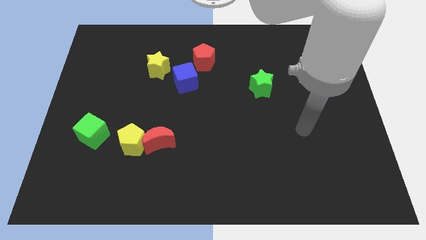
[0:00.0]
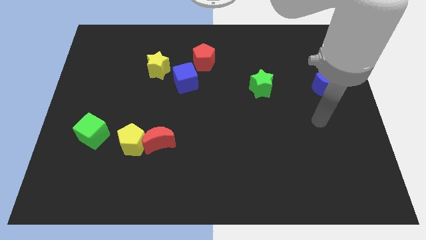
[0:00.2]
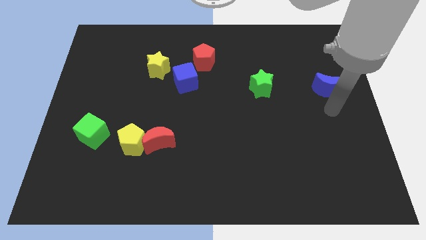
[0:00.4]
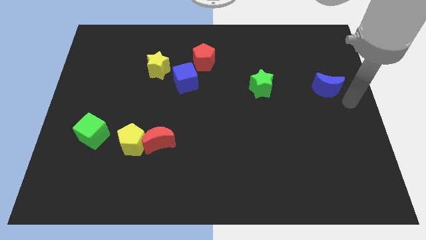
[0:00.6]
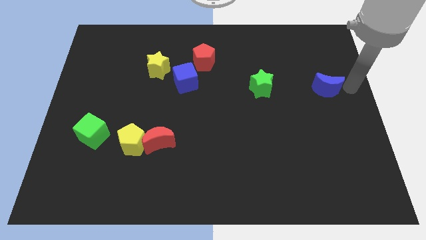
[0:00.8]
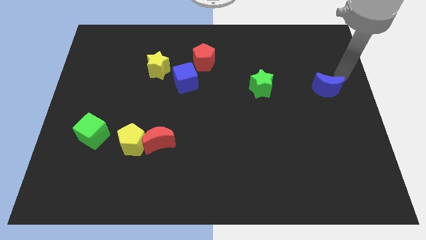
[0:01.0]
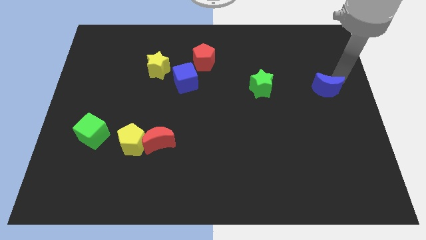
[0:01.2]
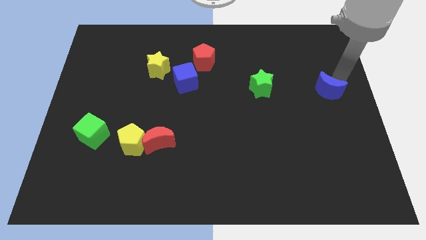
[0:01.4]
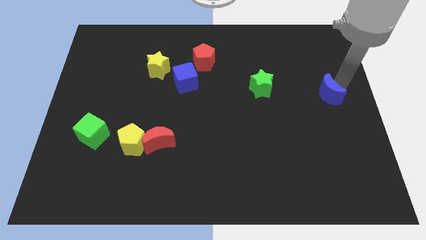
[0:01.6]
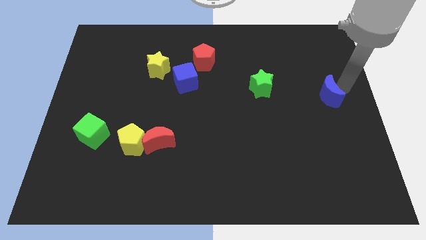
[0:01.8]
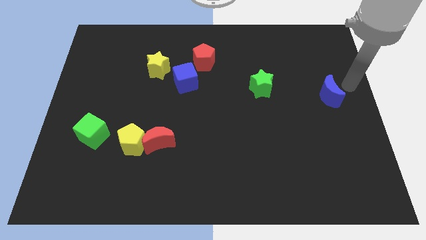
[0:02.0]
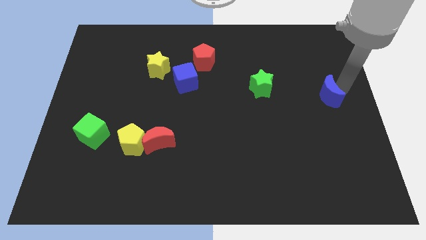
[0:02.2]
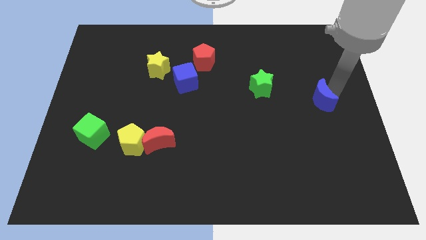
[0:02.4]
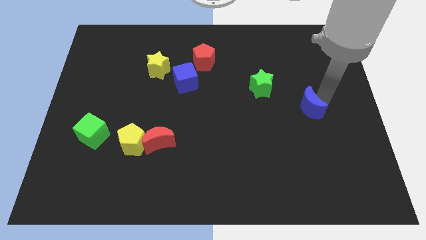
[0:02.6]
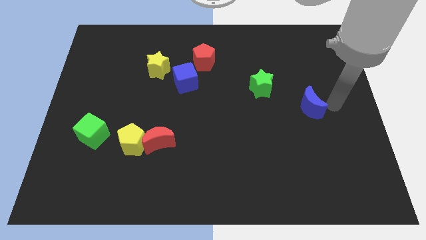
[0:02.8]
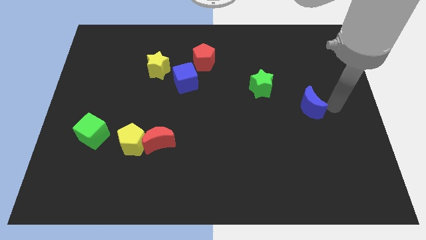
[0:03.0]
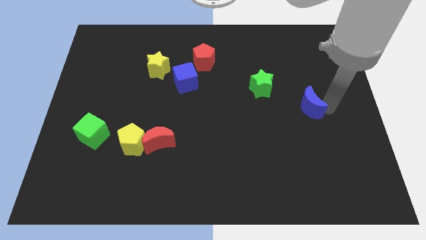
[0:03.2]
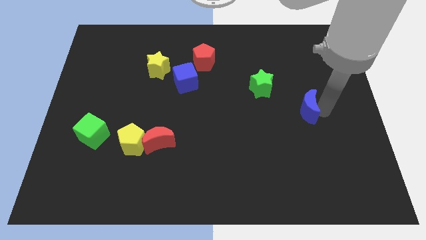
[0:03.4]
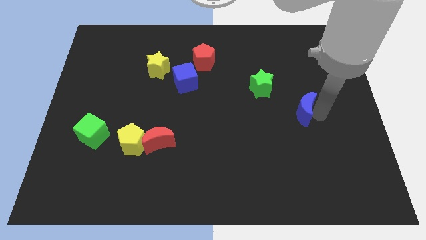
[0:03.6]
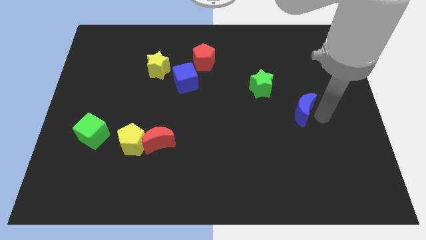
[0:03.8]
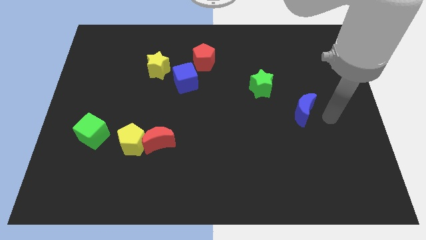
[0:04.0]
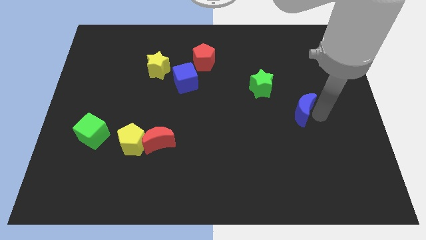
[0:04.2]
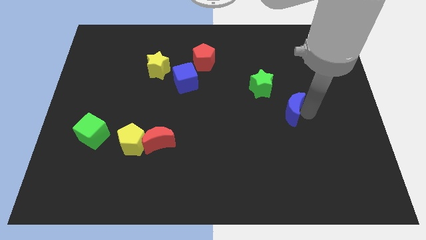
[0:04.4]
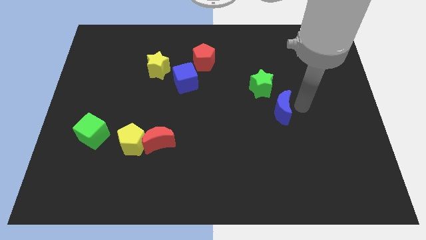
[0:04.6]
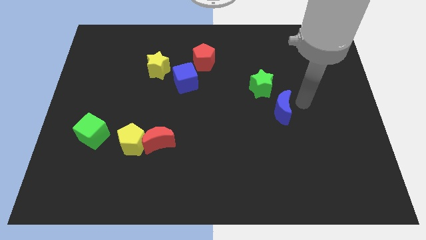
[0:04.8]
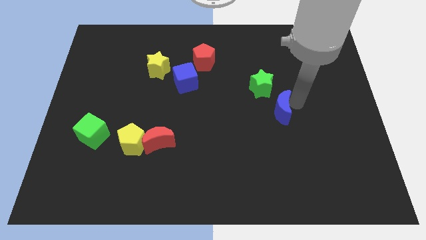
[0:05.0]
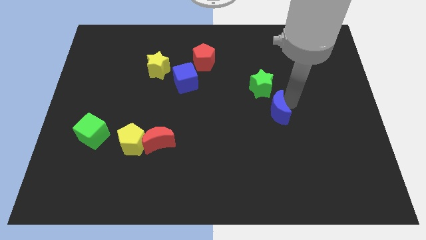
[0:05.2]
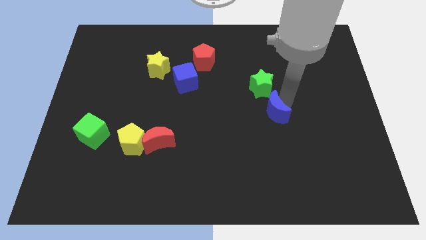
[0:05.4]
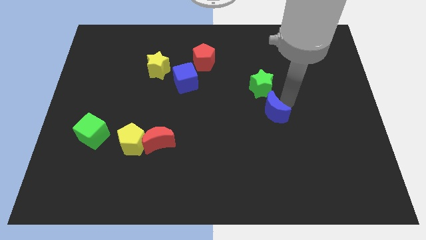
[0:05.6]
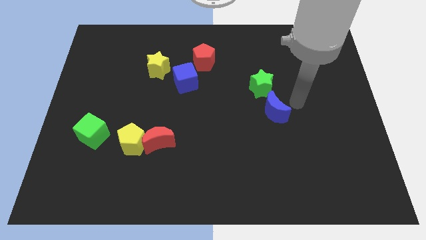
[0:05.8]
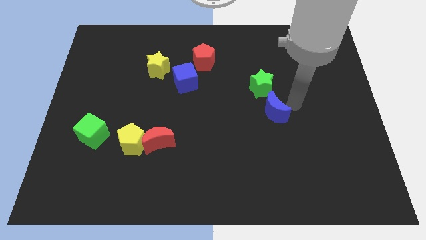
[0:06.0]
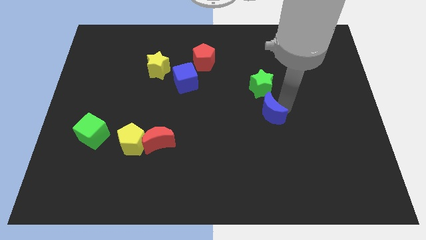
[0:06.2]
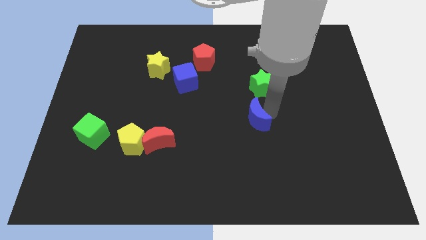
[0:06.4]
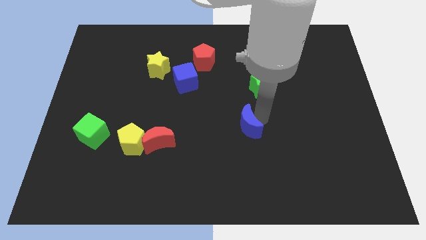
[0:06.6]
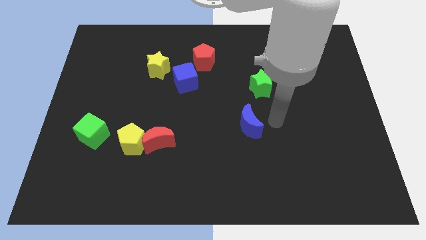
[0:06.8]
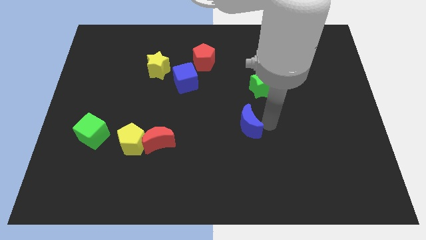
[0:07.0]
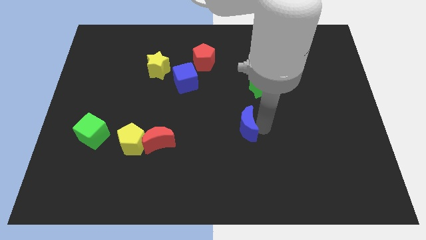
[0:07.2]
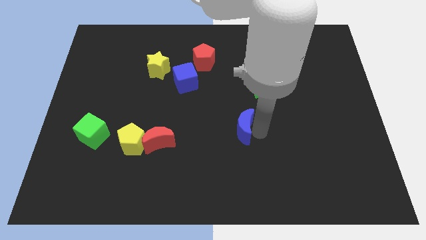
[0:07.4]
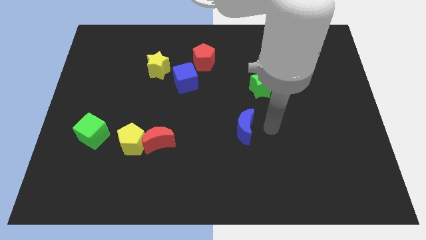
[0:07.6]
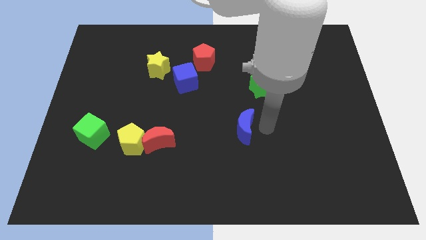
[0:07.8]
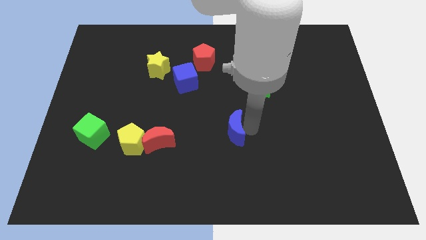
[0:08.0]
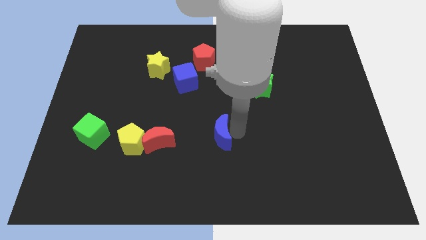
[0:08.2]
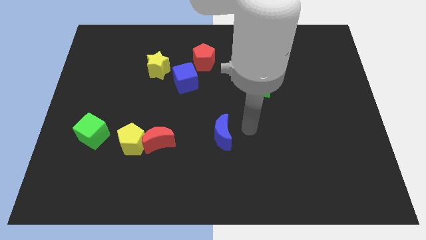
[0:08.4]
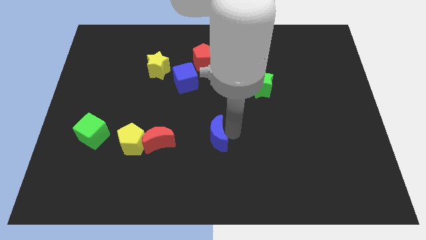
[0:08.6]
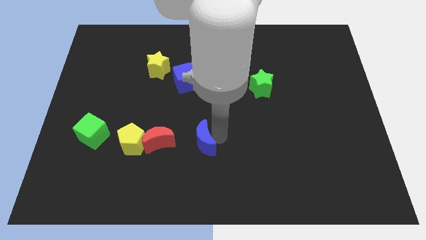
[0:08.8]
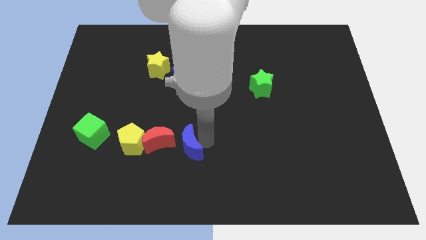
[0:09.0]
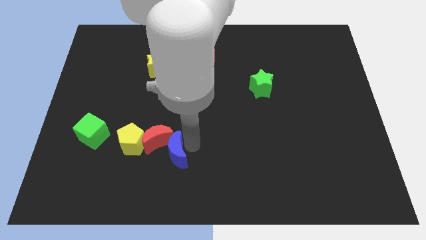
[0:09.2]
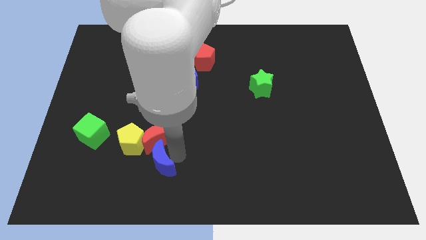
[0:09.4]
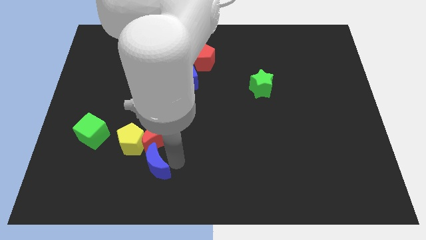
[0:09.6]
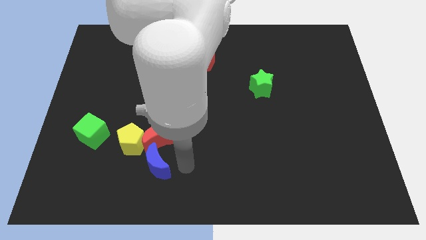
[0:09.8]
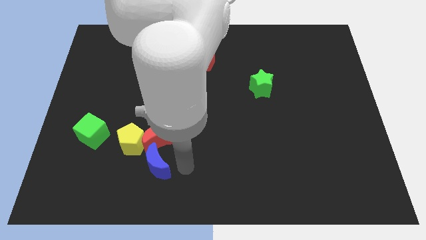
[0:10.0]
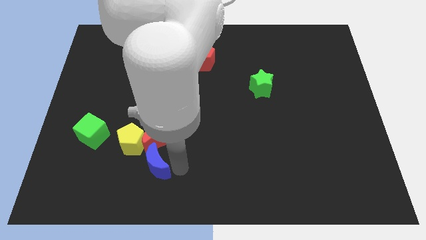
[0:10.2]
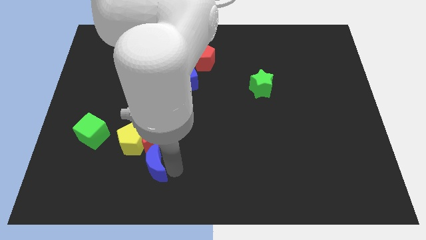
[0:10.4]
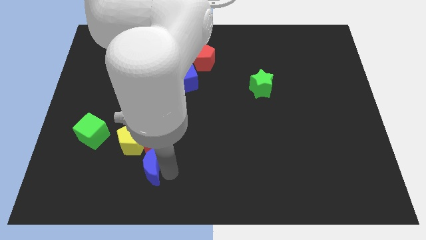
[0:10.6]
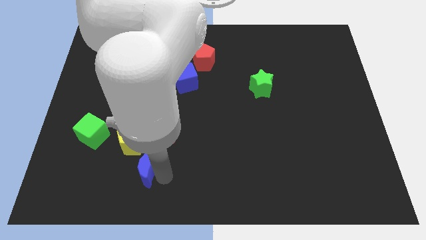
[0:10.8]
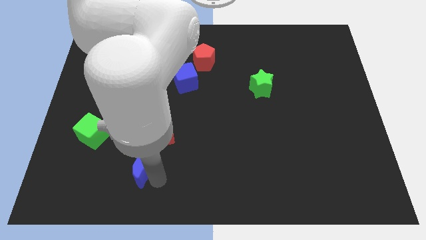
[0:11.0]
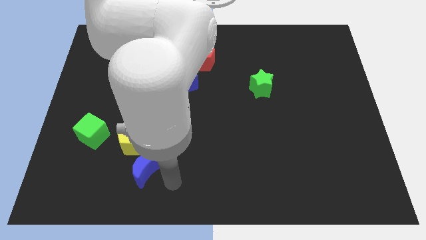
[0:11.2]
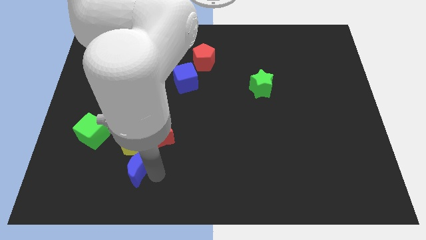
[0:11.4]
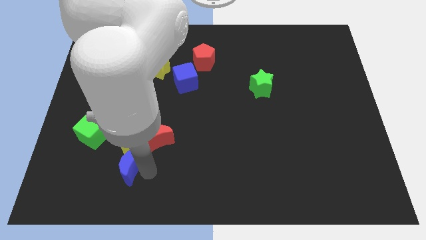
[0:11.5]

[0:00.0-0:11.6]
slide the blue moon to the bottom right side of the green cube

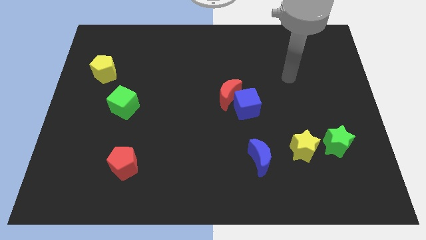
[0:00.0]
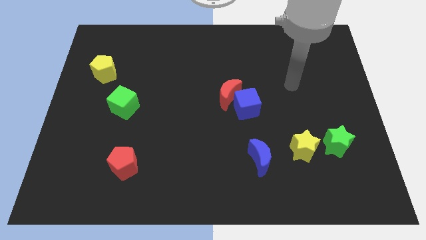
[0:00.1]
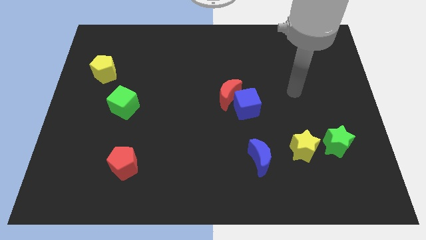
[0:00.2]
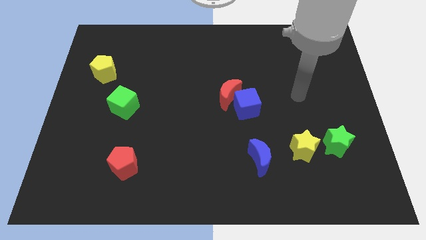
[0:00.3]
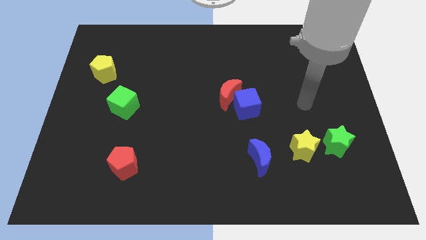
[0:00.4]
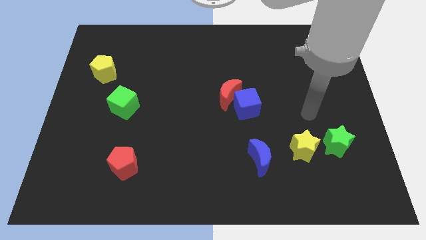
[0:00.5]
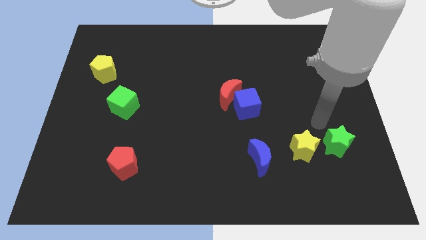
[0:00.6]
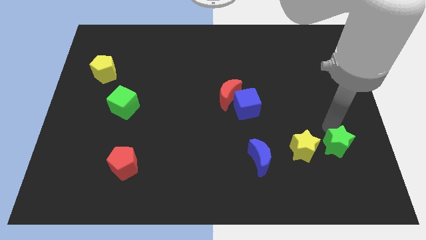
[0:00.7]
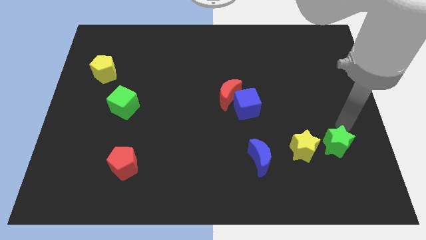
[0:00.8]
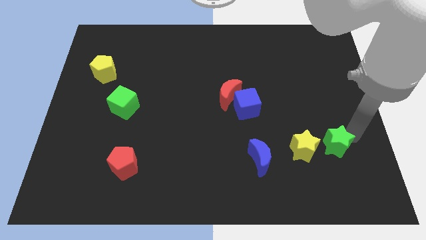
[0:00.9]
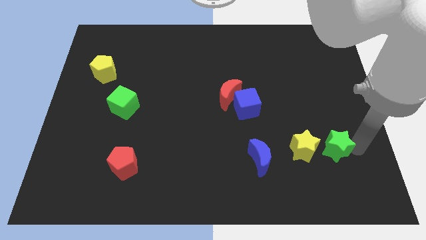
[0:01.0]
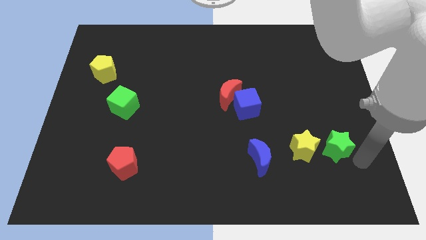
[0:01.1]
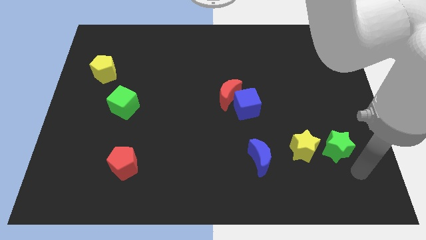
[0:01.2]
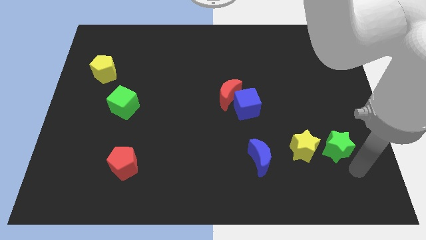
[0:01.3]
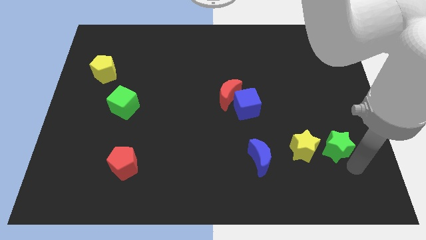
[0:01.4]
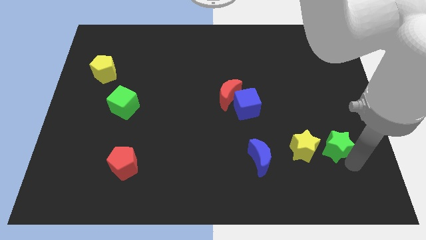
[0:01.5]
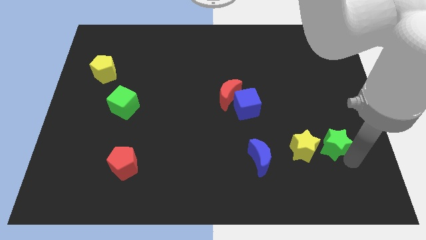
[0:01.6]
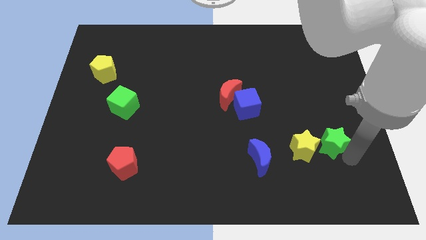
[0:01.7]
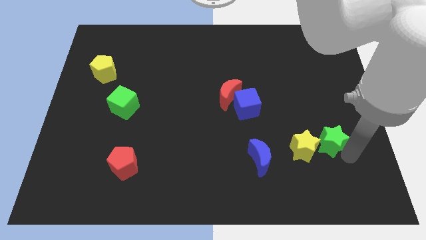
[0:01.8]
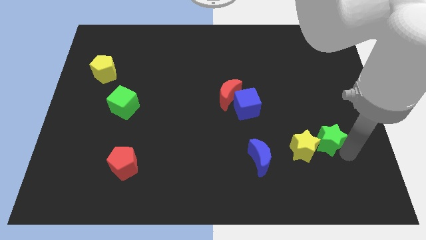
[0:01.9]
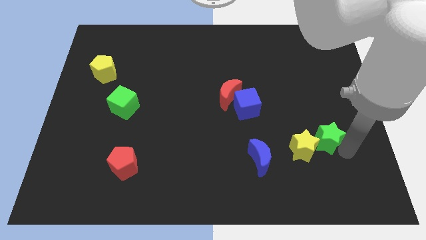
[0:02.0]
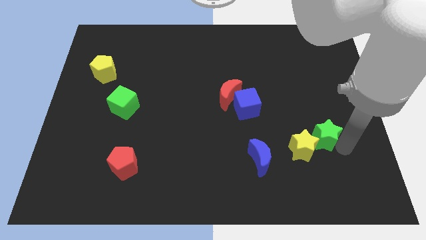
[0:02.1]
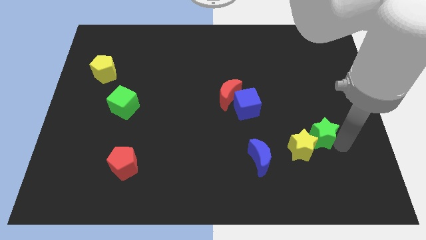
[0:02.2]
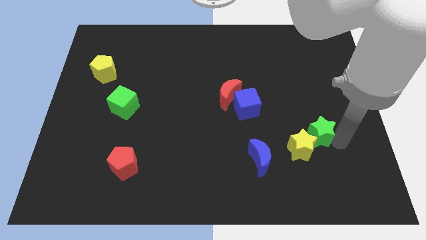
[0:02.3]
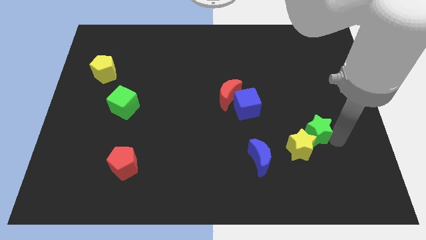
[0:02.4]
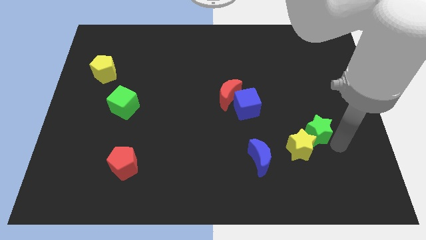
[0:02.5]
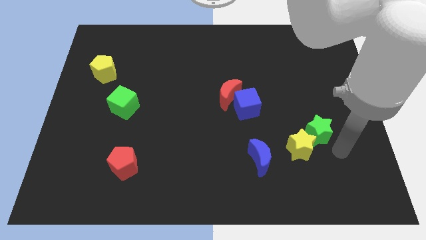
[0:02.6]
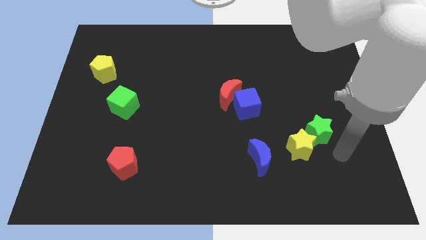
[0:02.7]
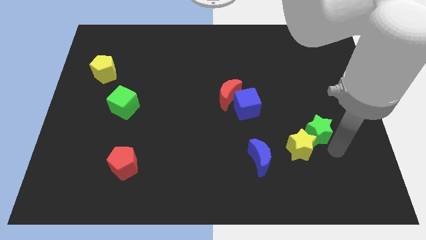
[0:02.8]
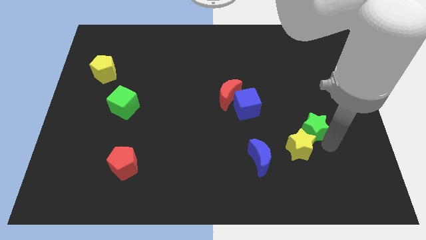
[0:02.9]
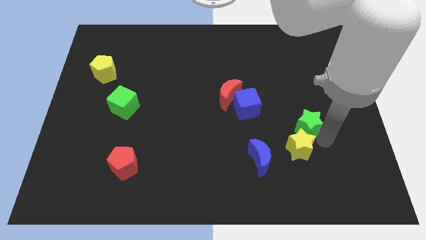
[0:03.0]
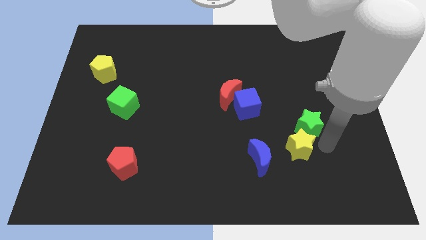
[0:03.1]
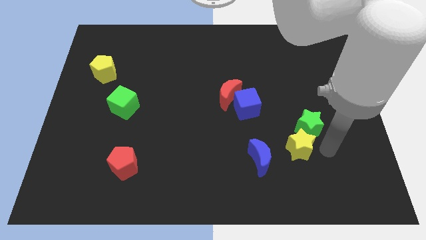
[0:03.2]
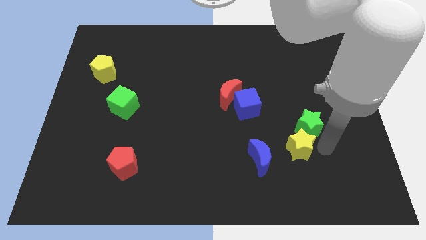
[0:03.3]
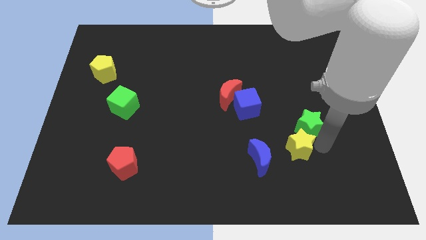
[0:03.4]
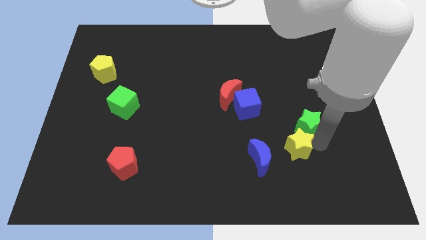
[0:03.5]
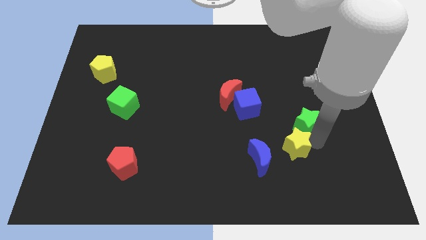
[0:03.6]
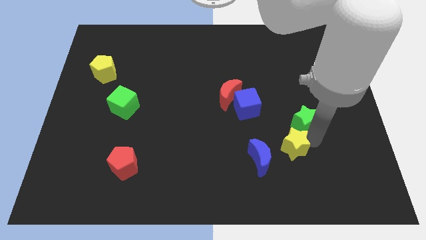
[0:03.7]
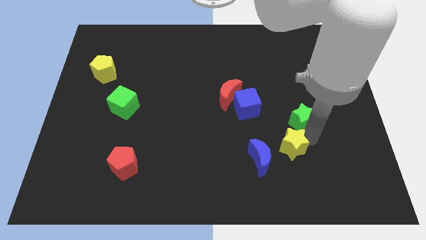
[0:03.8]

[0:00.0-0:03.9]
push the green star to the right of the blue cube
